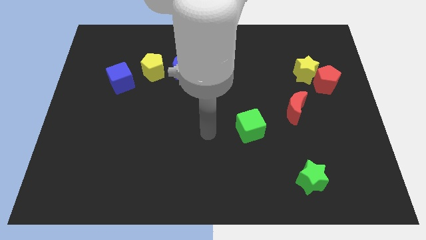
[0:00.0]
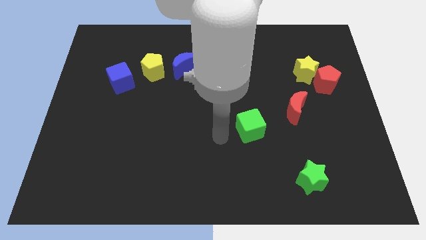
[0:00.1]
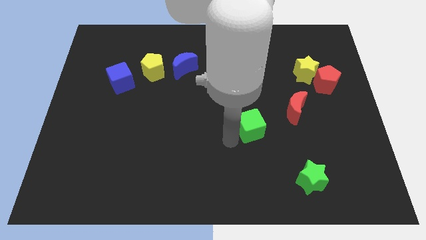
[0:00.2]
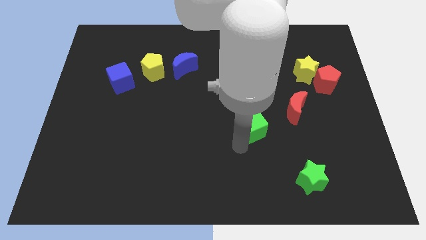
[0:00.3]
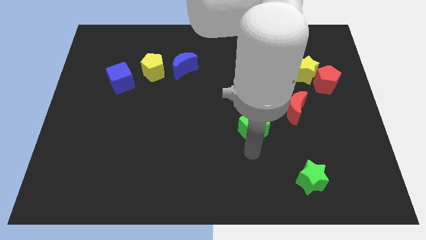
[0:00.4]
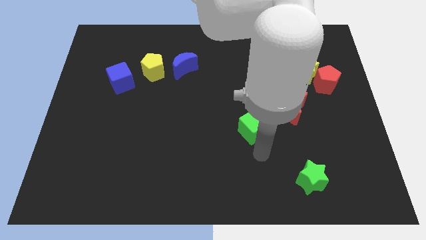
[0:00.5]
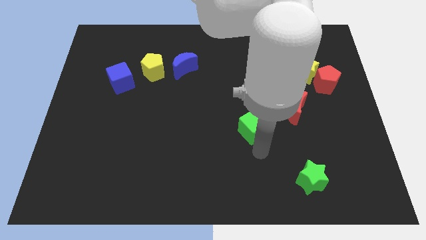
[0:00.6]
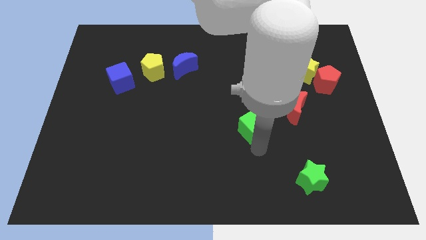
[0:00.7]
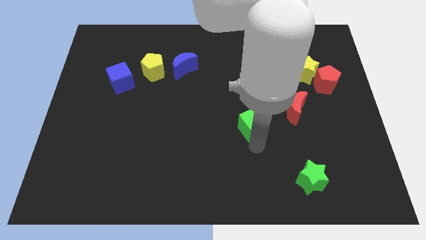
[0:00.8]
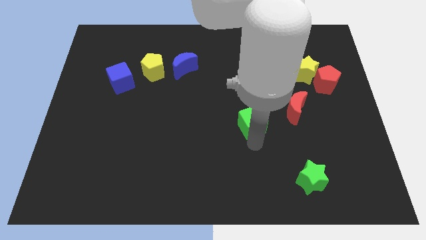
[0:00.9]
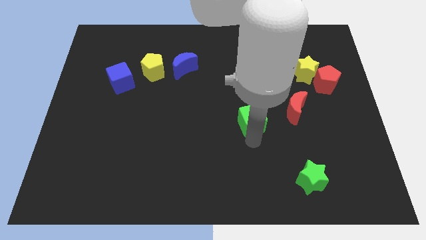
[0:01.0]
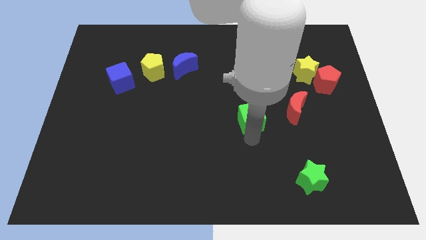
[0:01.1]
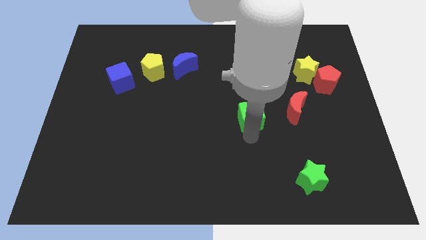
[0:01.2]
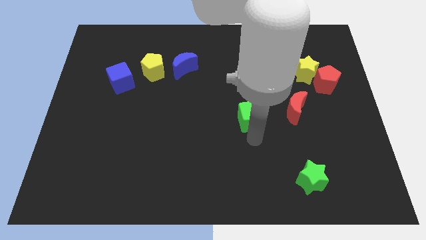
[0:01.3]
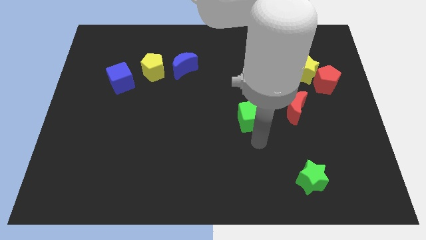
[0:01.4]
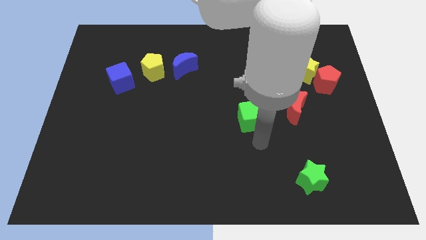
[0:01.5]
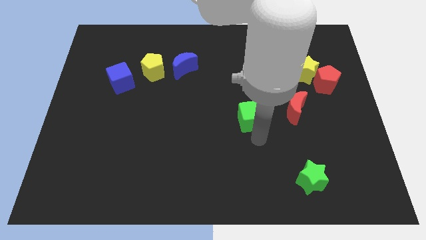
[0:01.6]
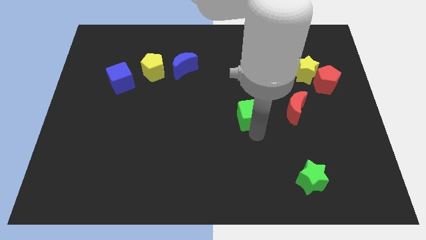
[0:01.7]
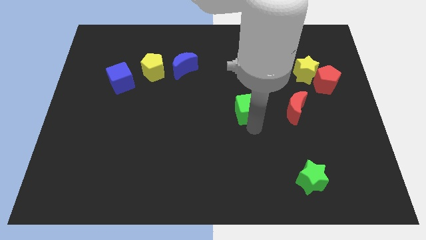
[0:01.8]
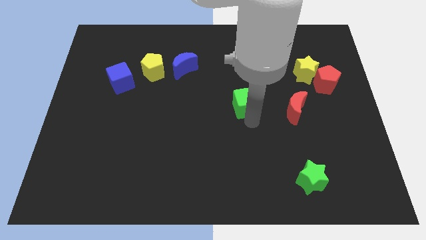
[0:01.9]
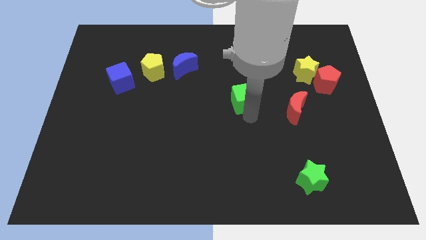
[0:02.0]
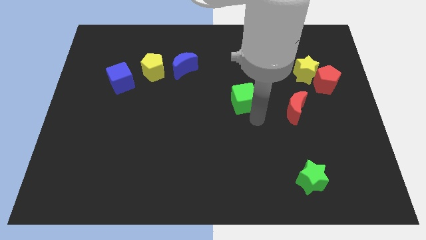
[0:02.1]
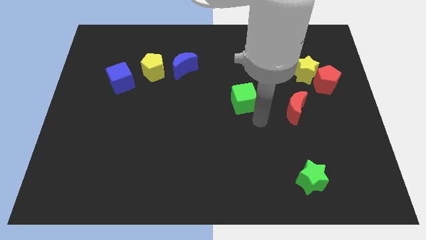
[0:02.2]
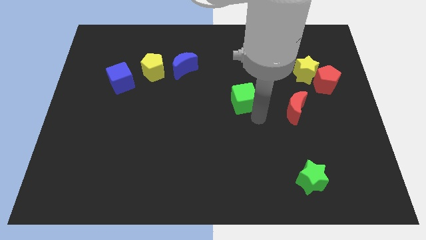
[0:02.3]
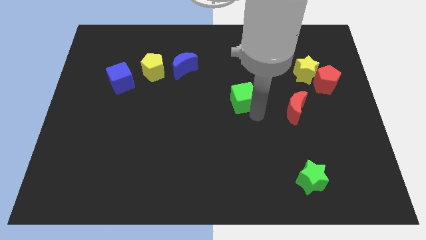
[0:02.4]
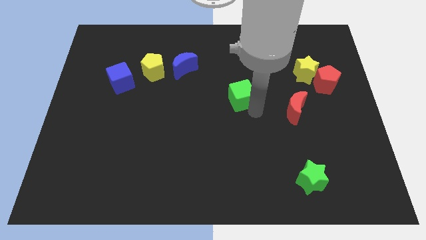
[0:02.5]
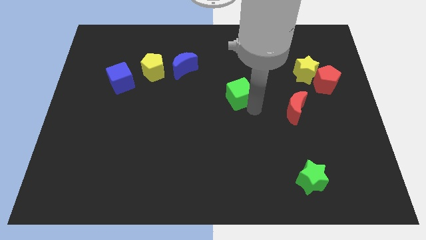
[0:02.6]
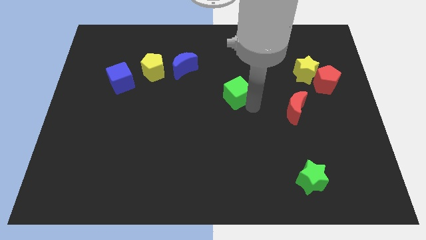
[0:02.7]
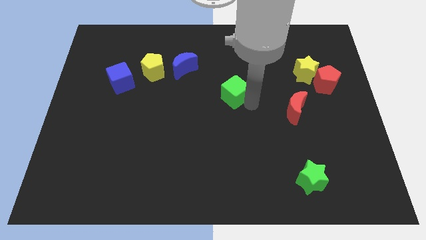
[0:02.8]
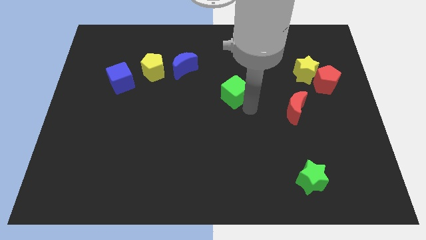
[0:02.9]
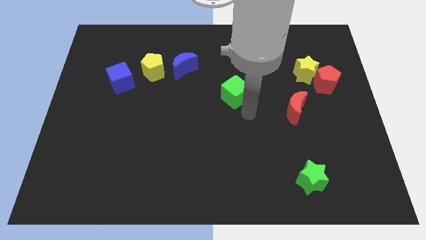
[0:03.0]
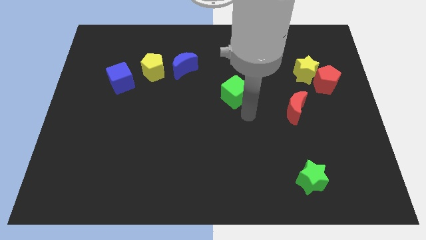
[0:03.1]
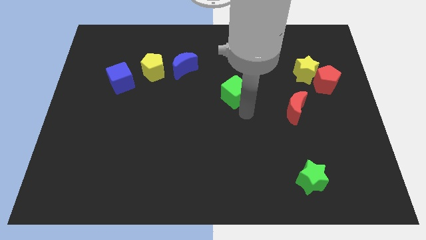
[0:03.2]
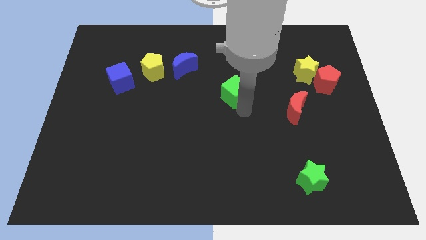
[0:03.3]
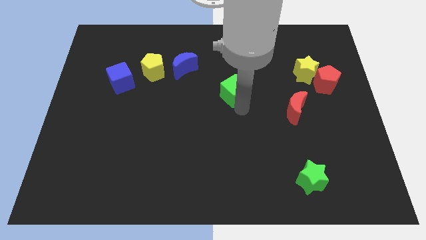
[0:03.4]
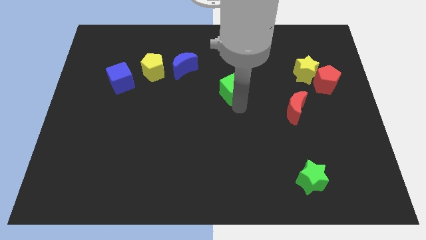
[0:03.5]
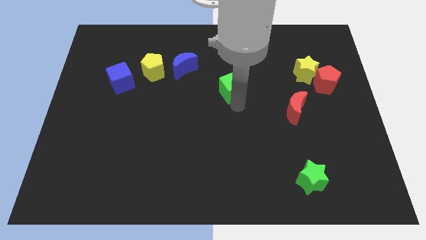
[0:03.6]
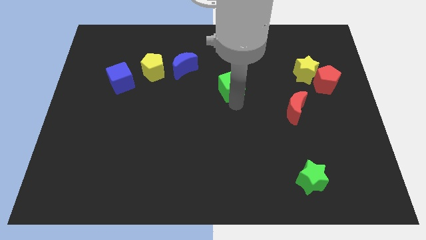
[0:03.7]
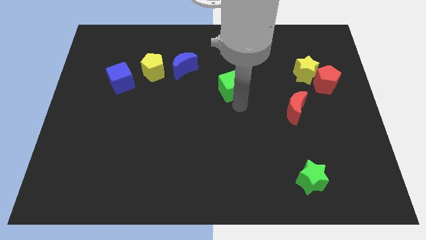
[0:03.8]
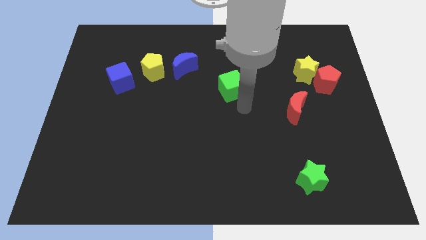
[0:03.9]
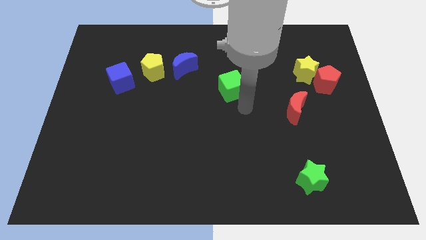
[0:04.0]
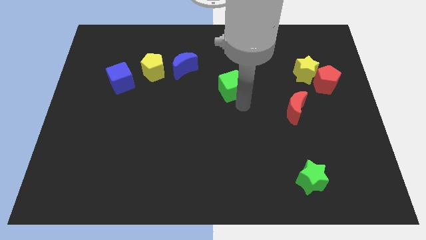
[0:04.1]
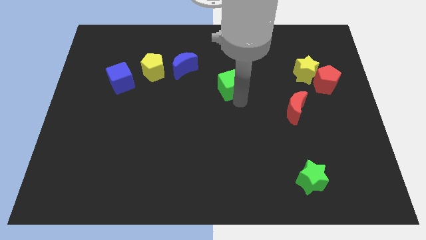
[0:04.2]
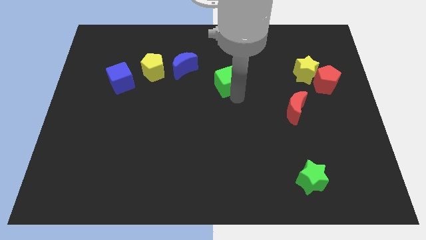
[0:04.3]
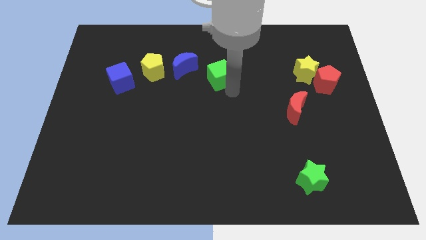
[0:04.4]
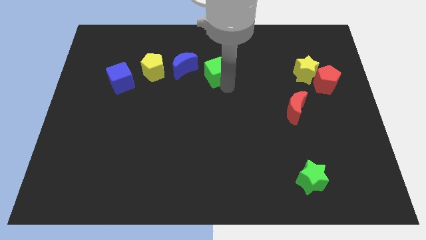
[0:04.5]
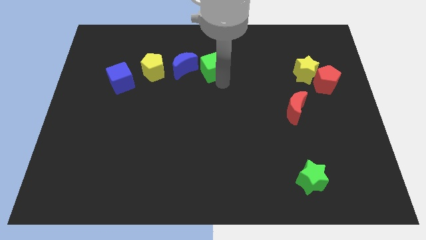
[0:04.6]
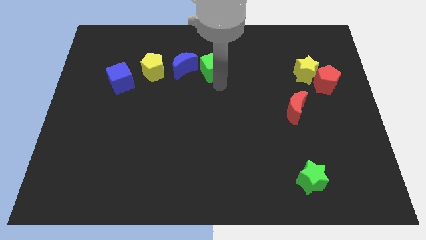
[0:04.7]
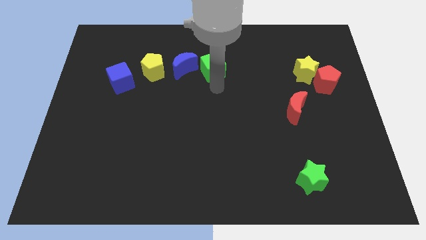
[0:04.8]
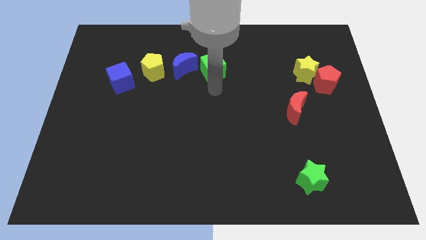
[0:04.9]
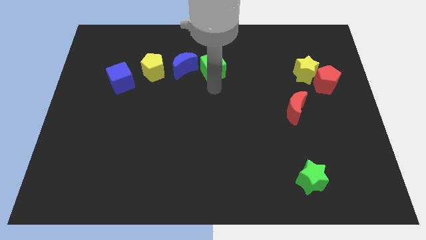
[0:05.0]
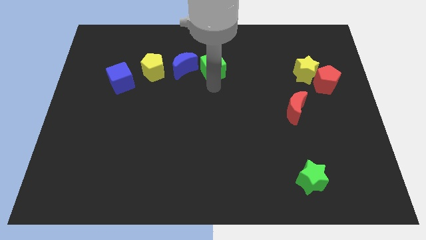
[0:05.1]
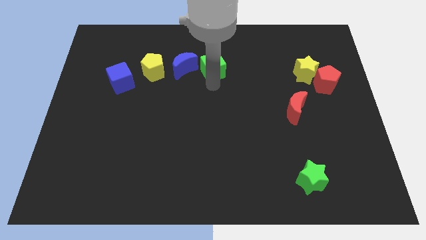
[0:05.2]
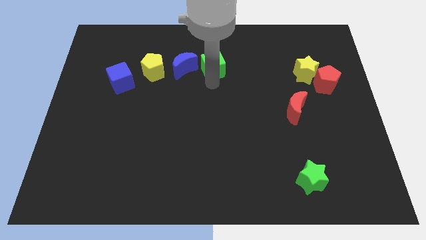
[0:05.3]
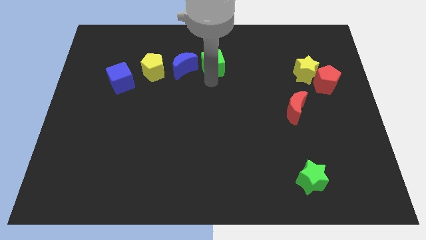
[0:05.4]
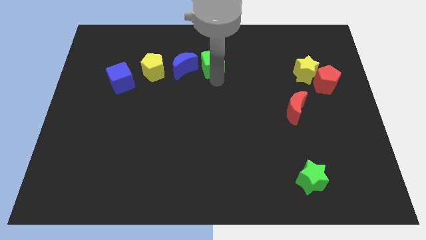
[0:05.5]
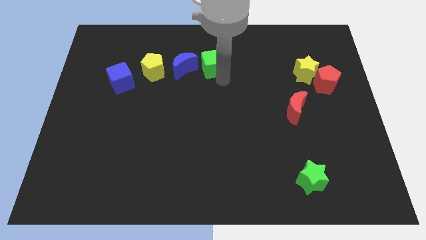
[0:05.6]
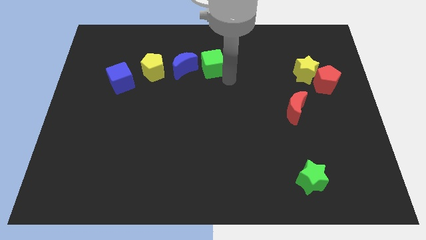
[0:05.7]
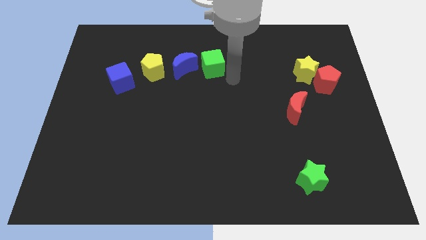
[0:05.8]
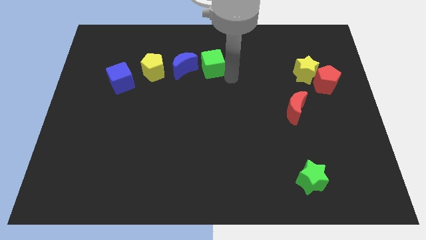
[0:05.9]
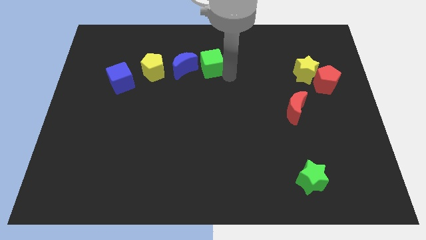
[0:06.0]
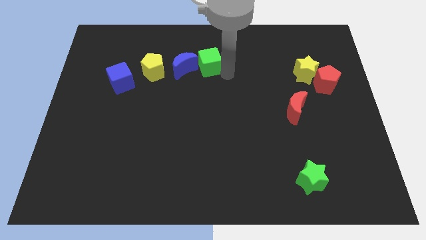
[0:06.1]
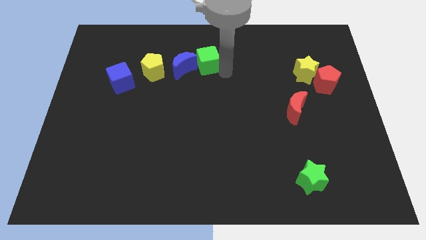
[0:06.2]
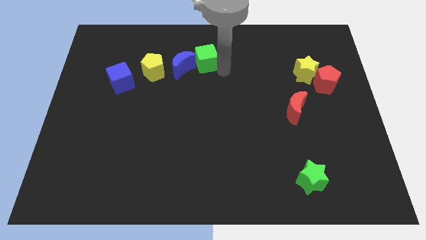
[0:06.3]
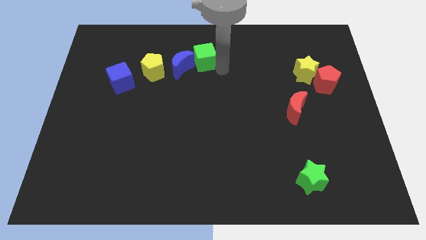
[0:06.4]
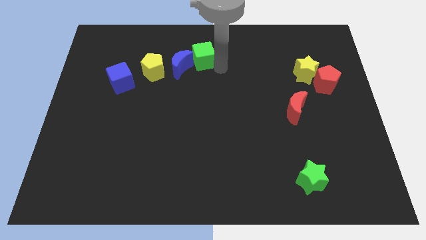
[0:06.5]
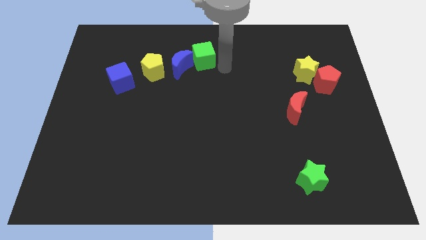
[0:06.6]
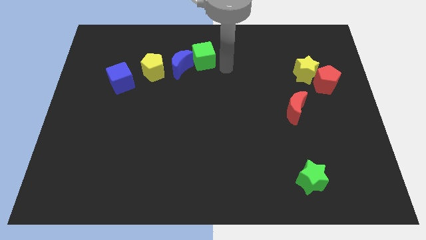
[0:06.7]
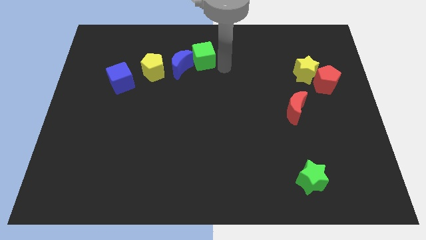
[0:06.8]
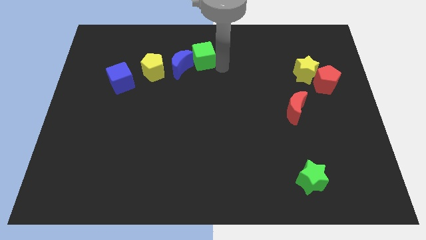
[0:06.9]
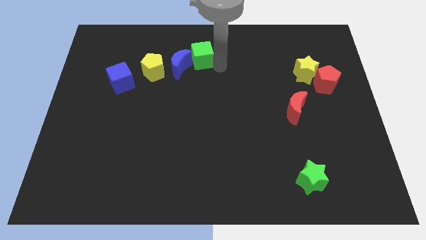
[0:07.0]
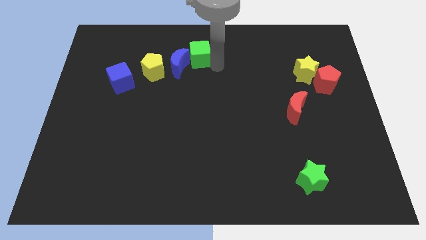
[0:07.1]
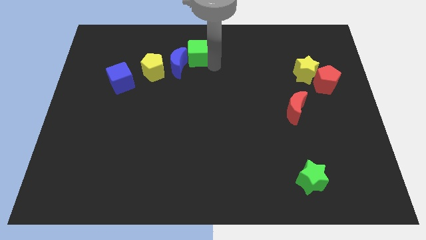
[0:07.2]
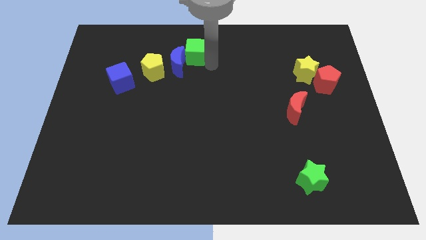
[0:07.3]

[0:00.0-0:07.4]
push the green cube to the top right side of the yellow pentagon
